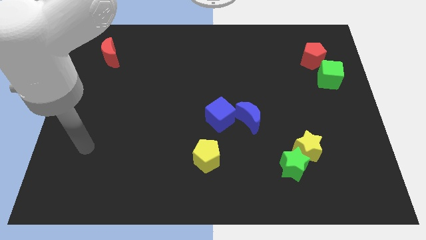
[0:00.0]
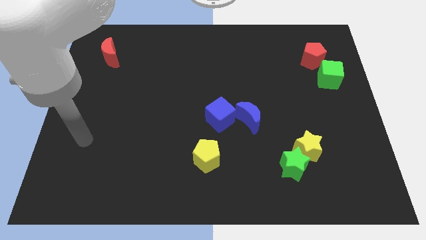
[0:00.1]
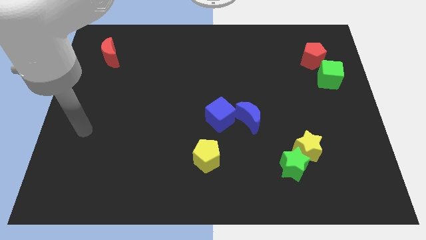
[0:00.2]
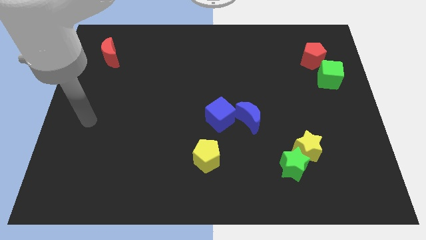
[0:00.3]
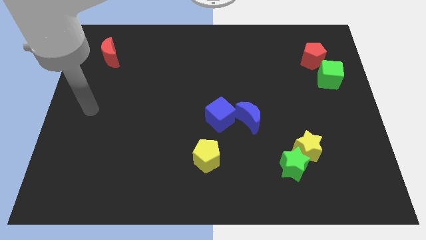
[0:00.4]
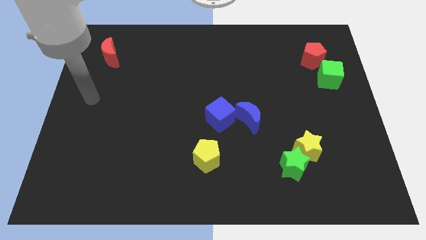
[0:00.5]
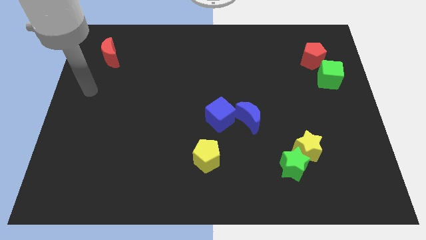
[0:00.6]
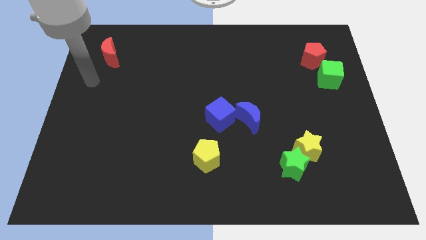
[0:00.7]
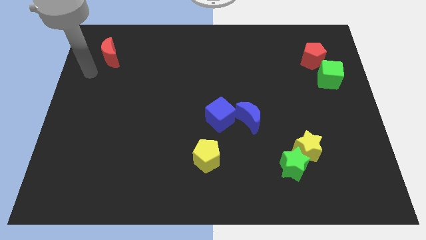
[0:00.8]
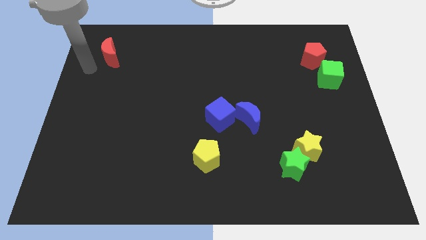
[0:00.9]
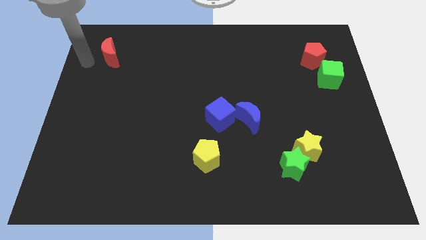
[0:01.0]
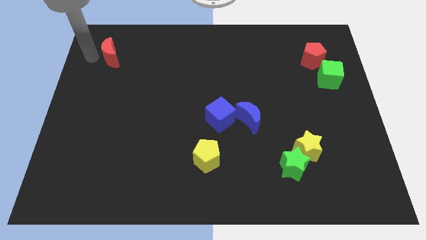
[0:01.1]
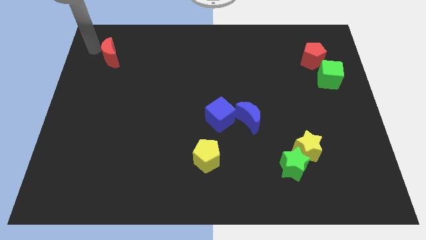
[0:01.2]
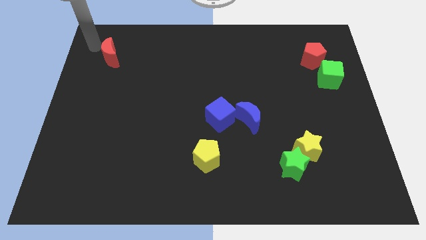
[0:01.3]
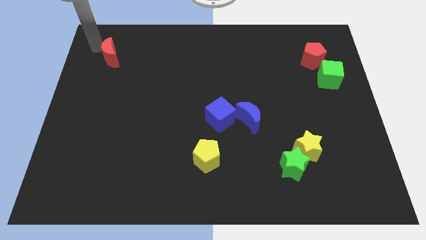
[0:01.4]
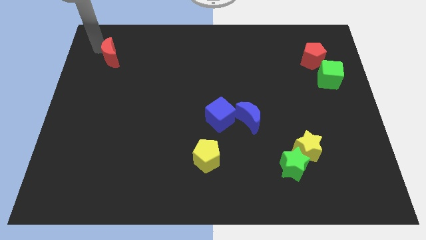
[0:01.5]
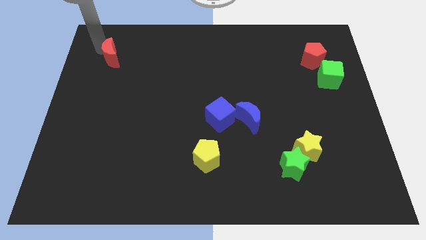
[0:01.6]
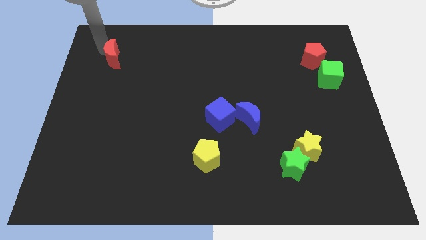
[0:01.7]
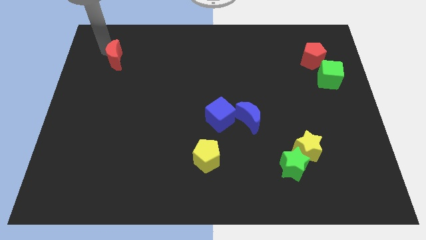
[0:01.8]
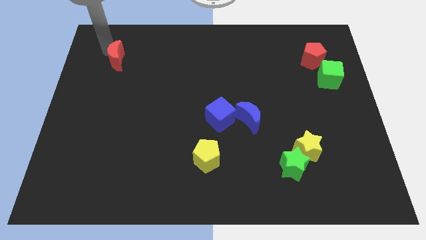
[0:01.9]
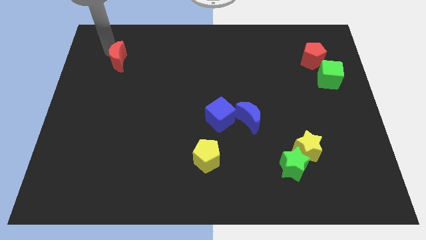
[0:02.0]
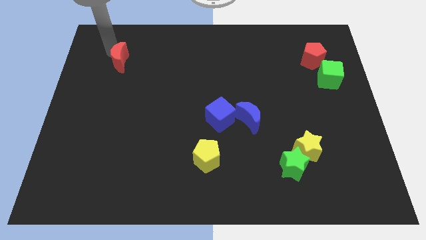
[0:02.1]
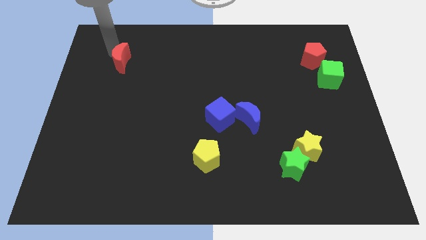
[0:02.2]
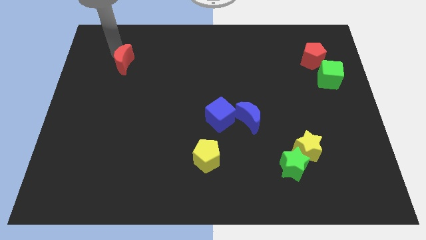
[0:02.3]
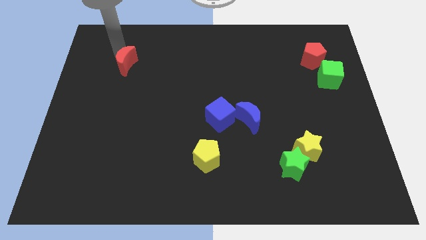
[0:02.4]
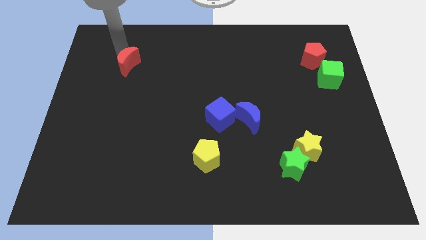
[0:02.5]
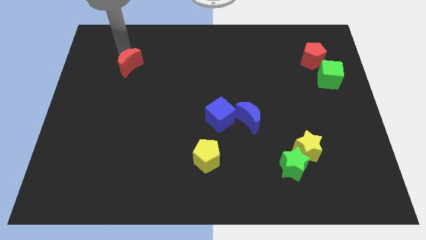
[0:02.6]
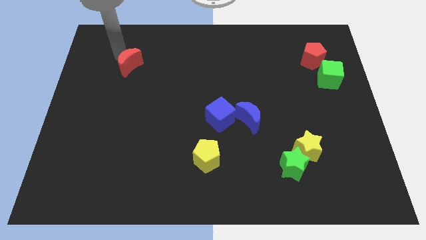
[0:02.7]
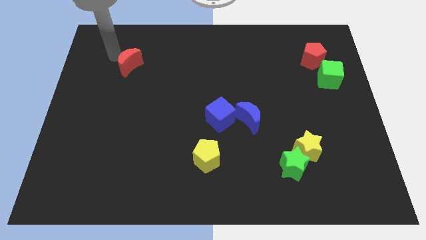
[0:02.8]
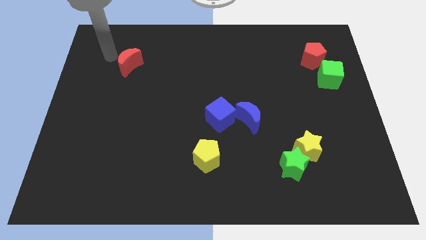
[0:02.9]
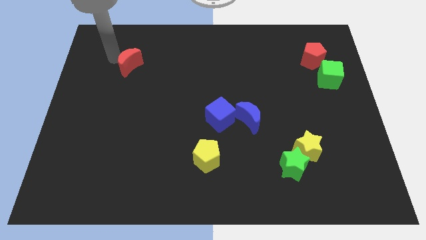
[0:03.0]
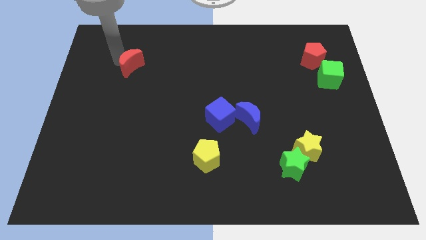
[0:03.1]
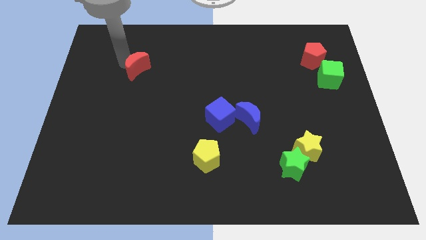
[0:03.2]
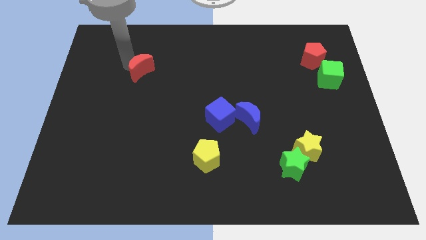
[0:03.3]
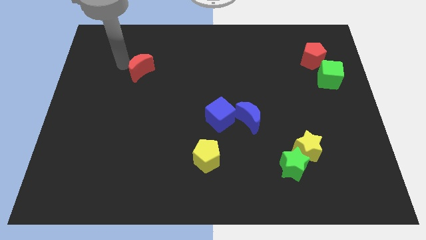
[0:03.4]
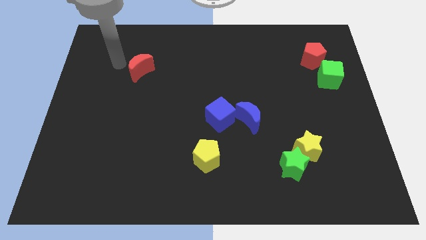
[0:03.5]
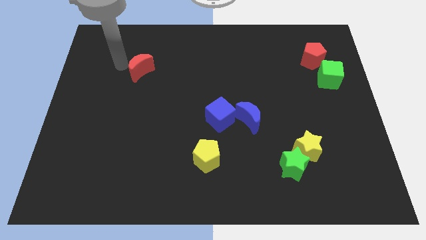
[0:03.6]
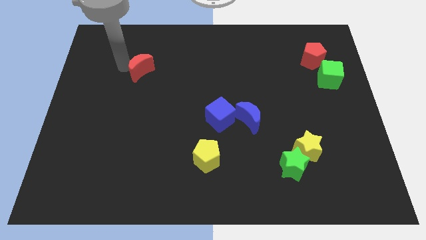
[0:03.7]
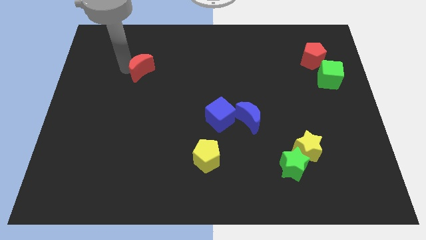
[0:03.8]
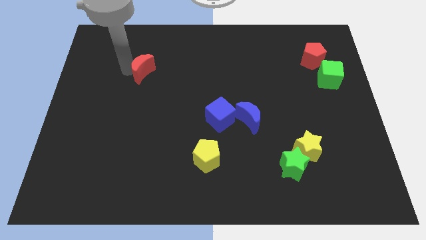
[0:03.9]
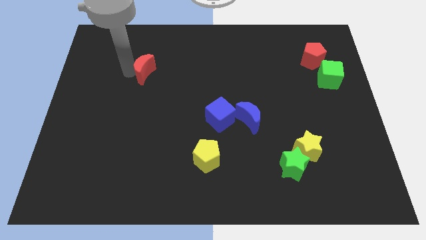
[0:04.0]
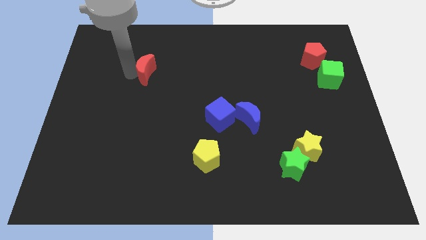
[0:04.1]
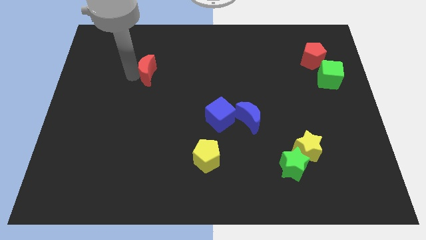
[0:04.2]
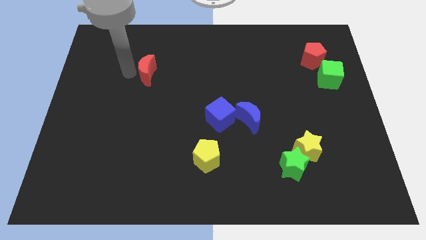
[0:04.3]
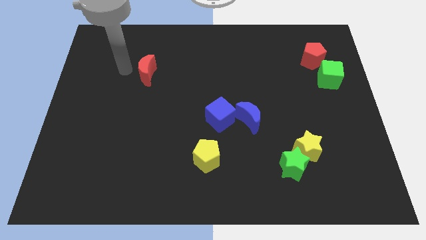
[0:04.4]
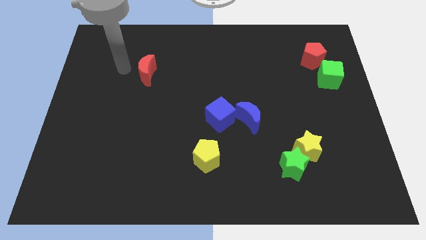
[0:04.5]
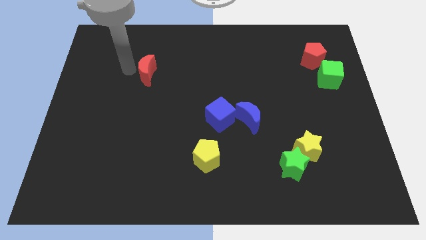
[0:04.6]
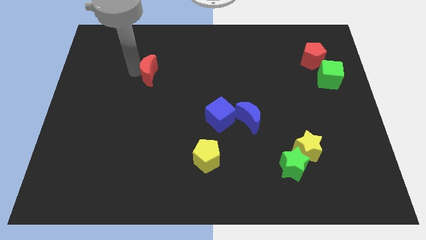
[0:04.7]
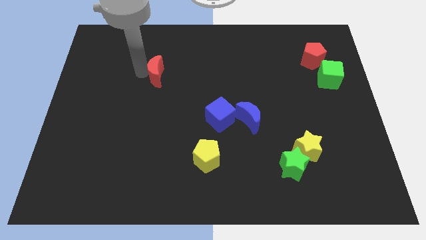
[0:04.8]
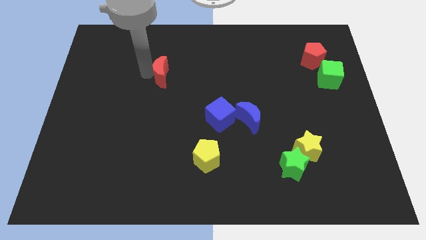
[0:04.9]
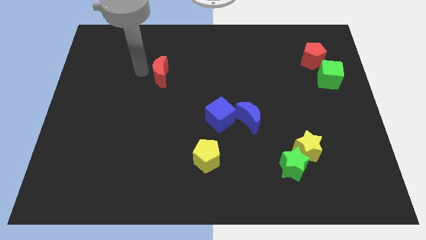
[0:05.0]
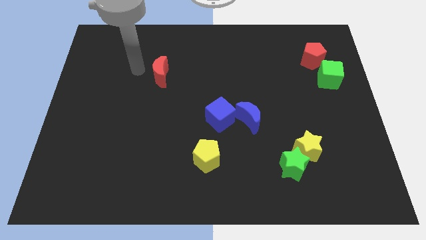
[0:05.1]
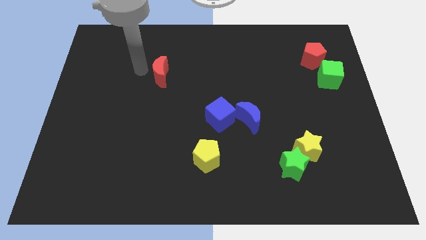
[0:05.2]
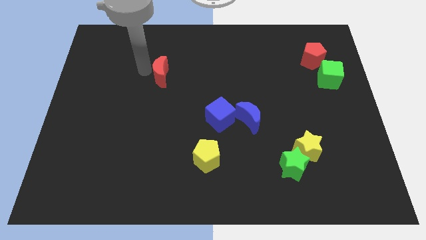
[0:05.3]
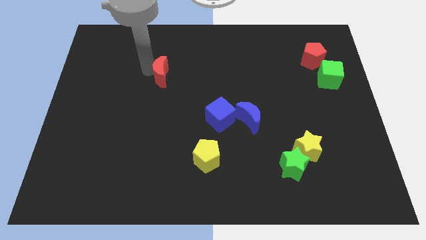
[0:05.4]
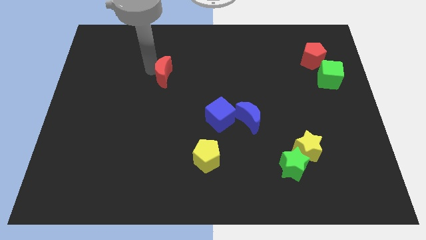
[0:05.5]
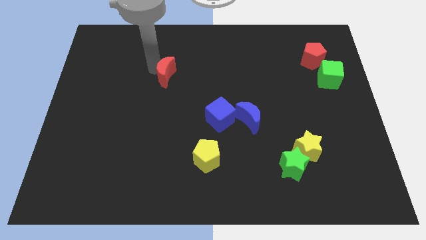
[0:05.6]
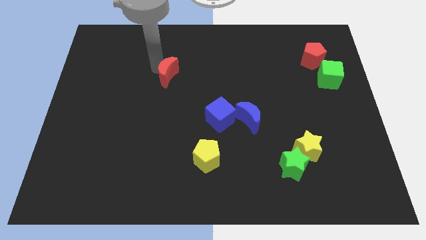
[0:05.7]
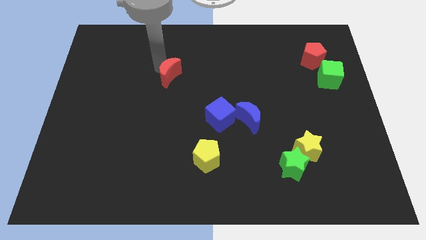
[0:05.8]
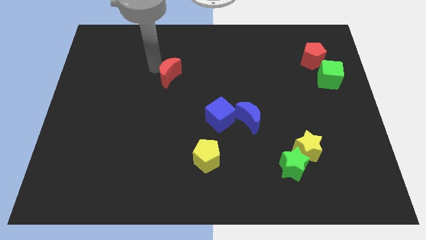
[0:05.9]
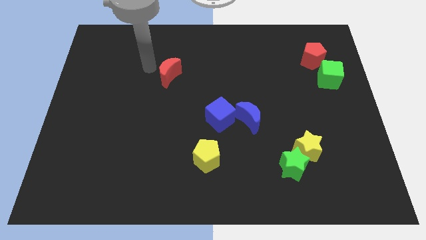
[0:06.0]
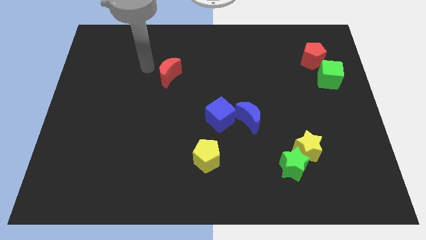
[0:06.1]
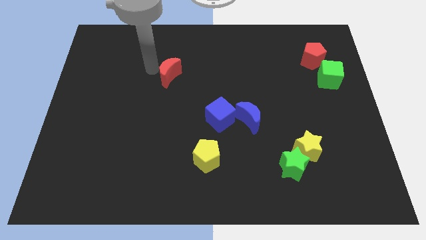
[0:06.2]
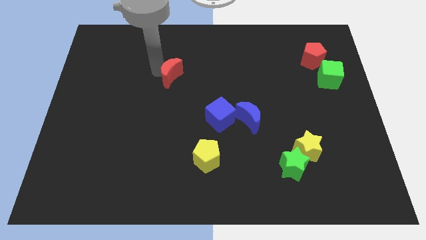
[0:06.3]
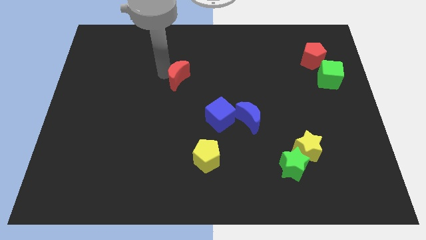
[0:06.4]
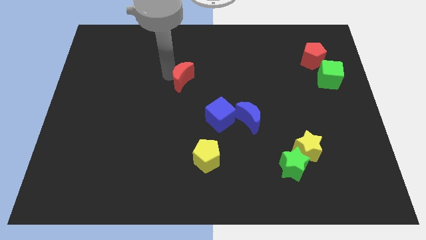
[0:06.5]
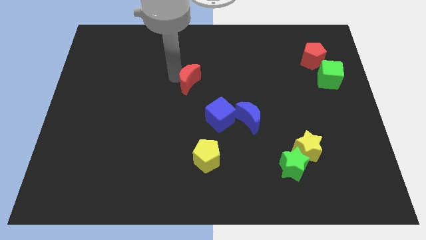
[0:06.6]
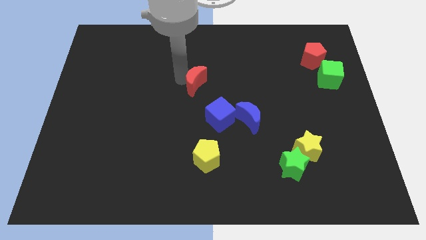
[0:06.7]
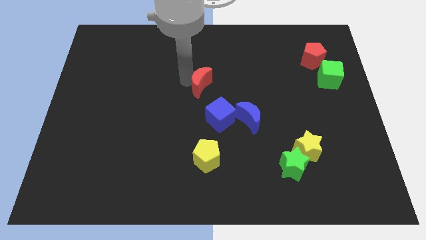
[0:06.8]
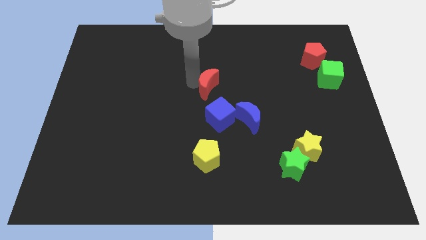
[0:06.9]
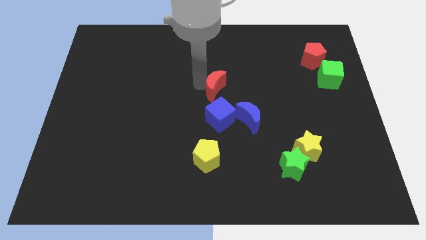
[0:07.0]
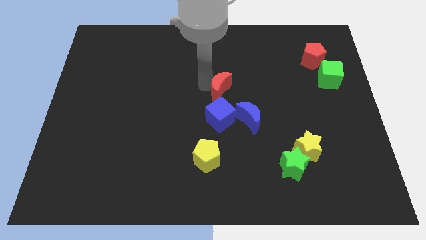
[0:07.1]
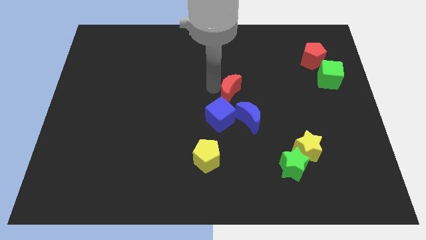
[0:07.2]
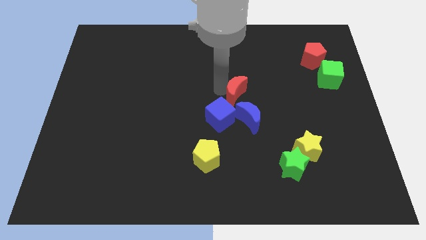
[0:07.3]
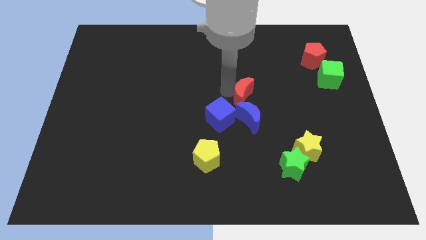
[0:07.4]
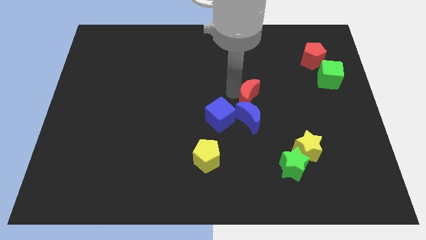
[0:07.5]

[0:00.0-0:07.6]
slide the red moon to the top right of the blue moon

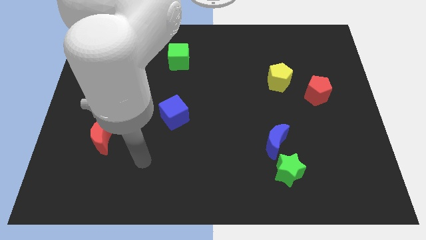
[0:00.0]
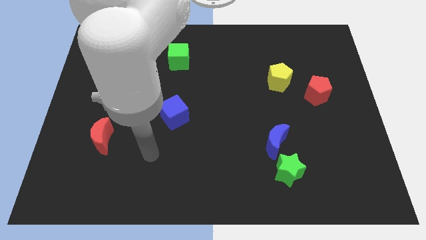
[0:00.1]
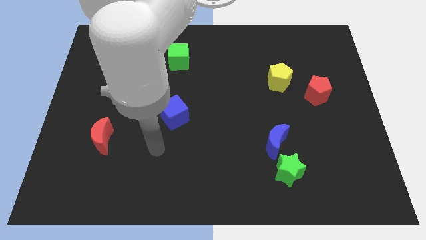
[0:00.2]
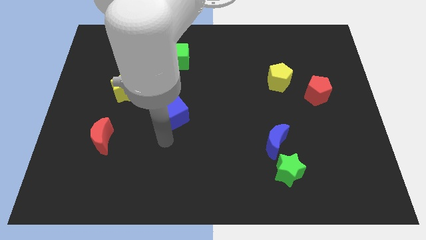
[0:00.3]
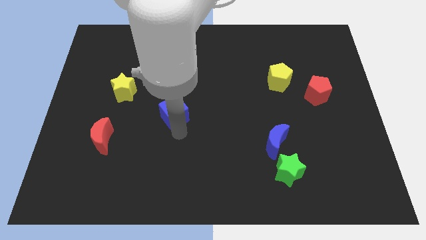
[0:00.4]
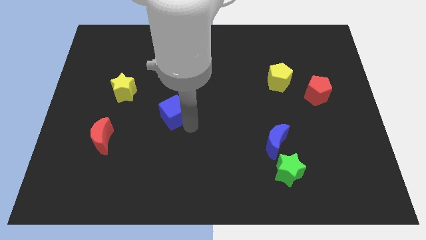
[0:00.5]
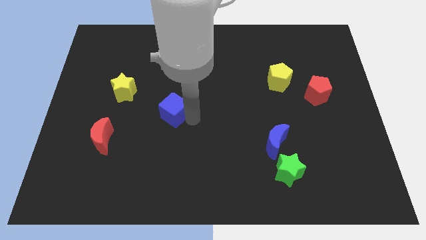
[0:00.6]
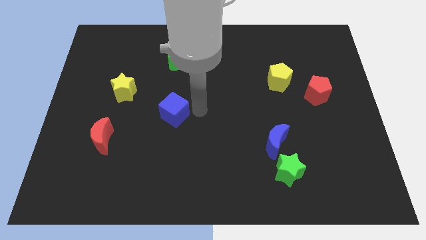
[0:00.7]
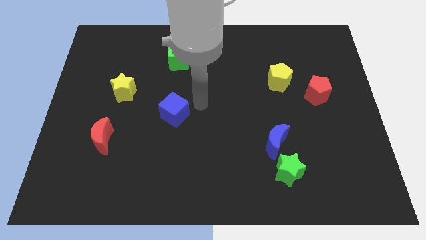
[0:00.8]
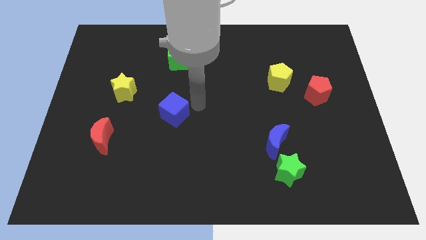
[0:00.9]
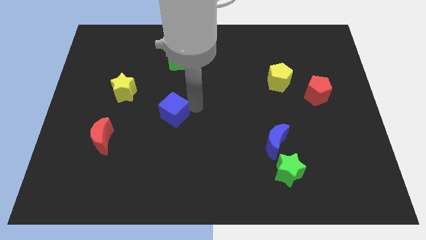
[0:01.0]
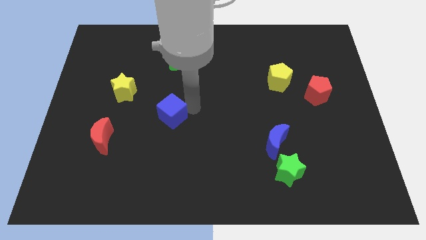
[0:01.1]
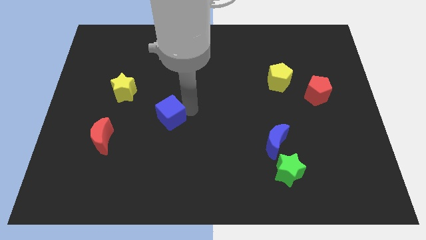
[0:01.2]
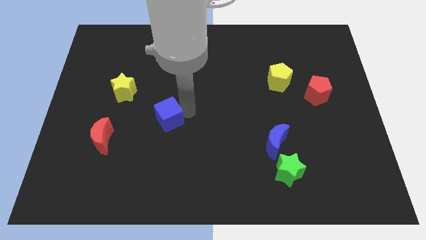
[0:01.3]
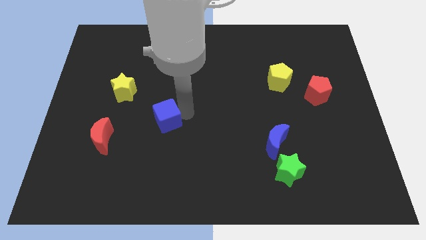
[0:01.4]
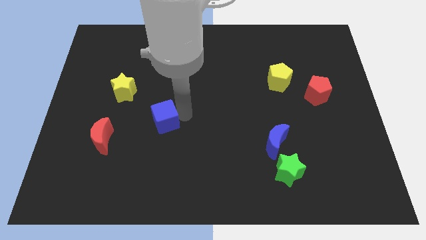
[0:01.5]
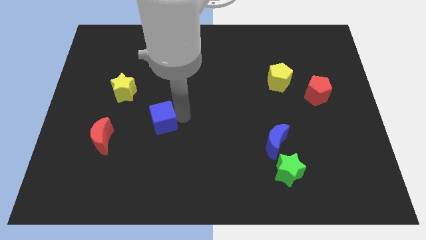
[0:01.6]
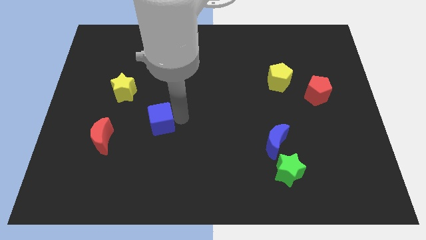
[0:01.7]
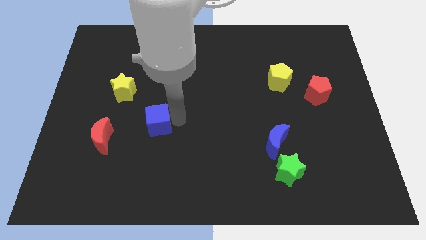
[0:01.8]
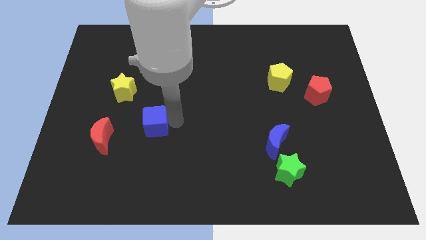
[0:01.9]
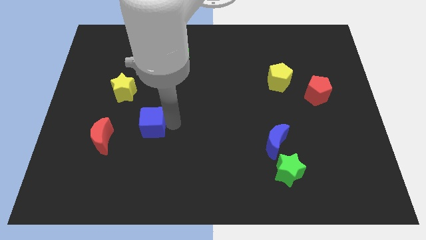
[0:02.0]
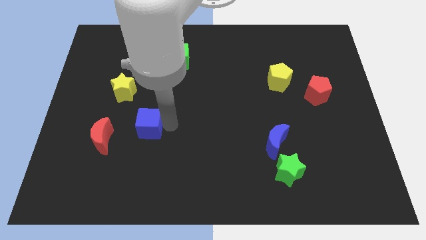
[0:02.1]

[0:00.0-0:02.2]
put the blue cube to the top right of the red moon
